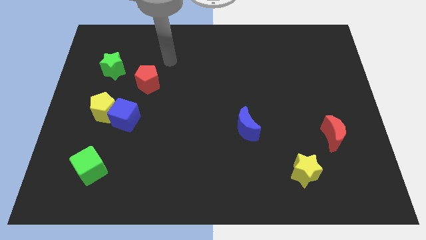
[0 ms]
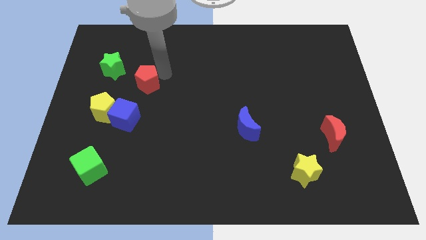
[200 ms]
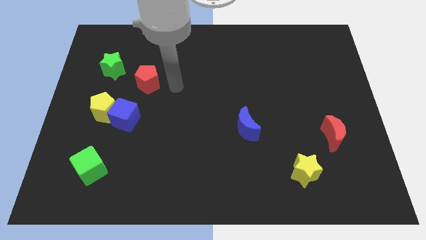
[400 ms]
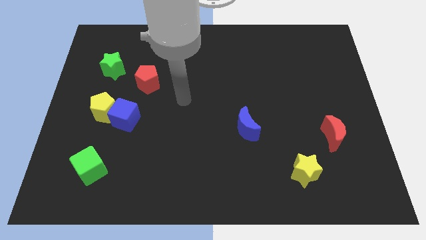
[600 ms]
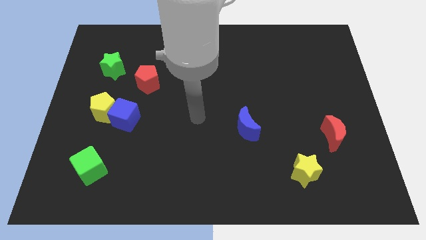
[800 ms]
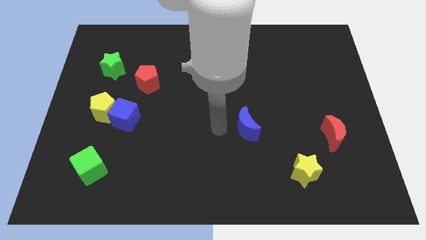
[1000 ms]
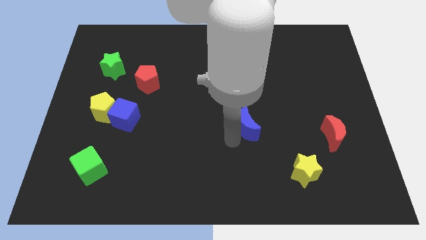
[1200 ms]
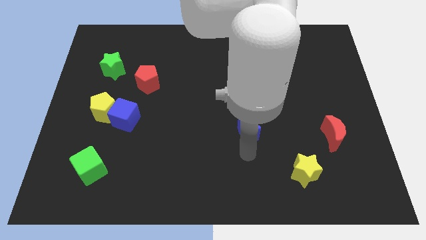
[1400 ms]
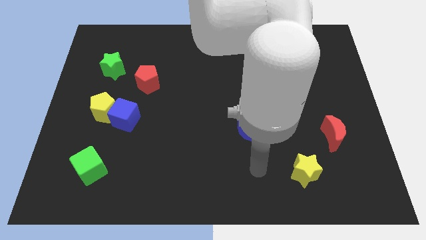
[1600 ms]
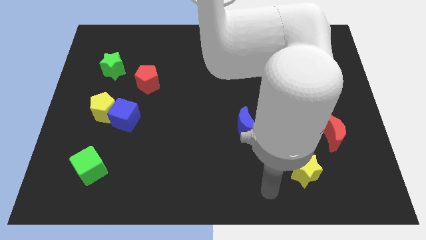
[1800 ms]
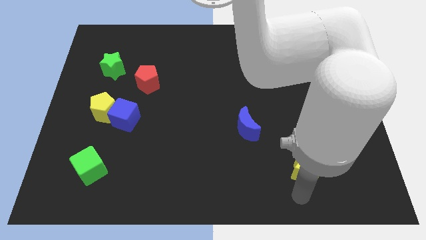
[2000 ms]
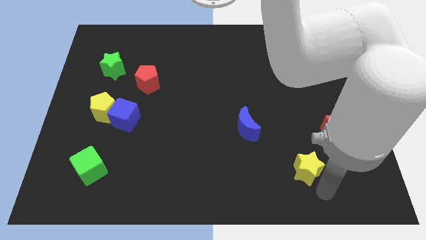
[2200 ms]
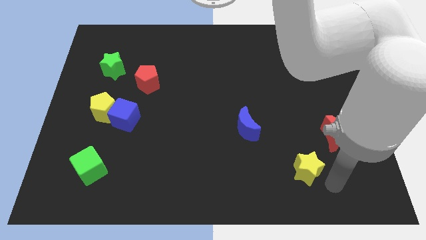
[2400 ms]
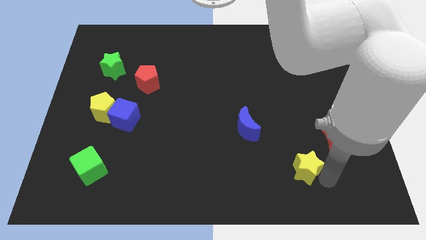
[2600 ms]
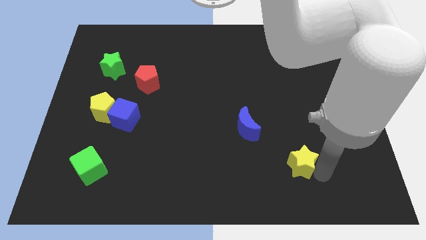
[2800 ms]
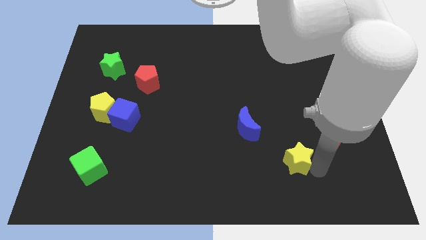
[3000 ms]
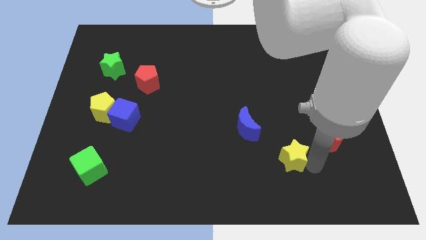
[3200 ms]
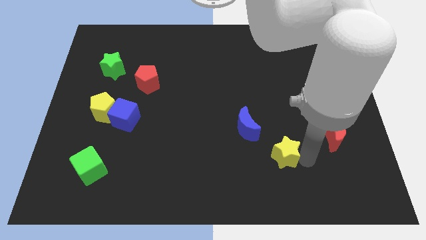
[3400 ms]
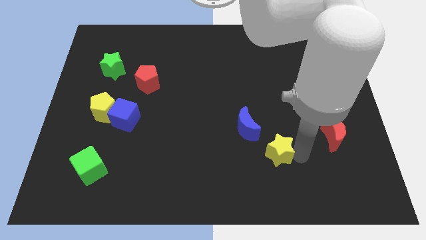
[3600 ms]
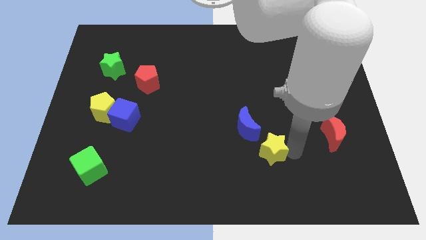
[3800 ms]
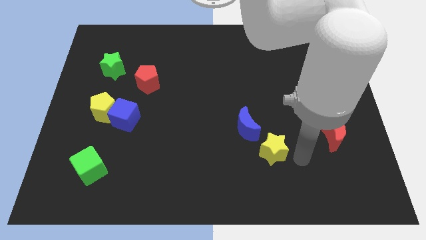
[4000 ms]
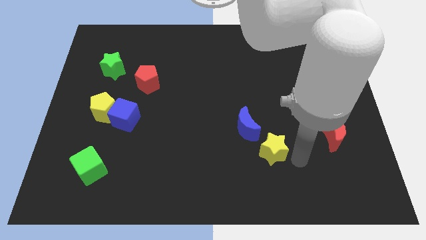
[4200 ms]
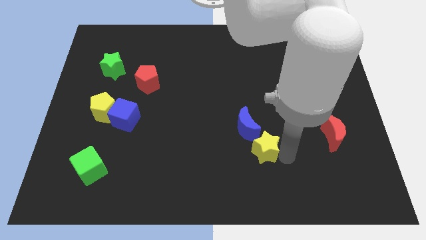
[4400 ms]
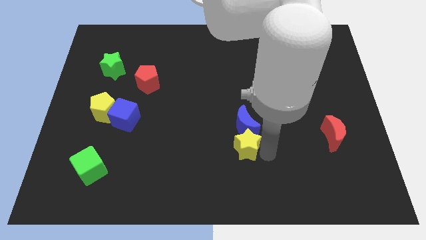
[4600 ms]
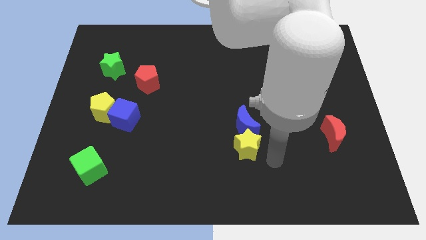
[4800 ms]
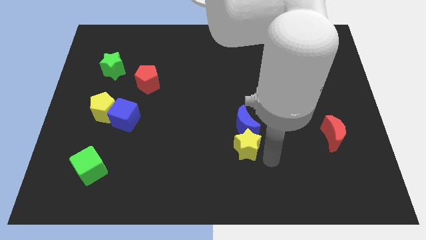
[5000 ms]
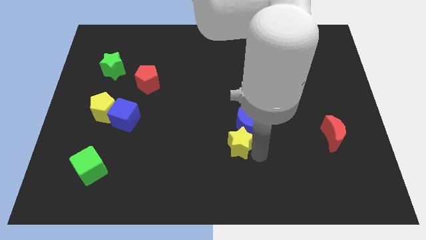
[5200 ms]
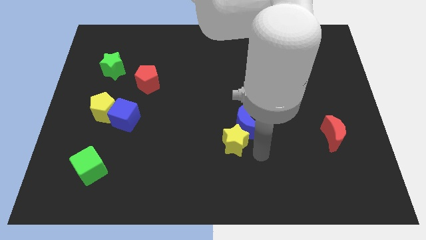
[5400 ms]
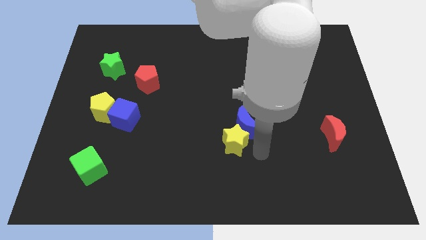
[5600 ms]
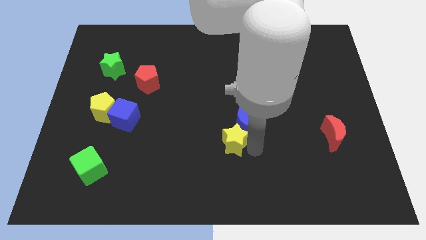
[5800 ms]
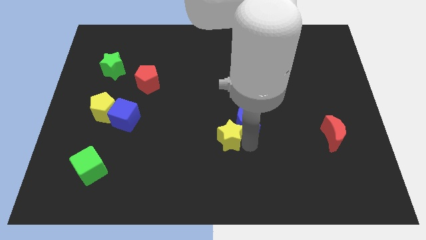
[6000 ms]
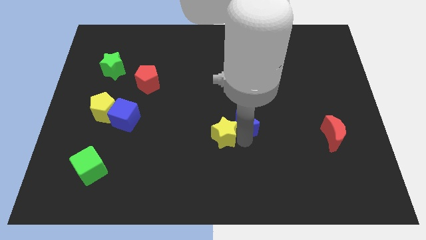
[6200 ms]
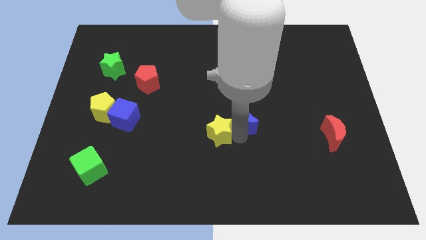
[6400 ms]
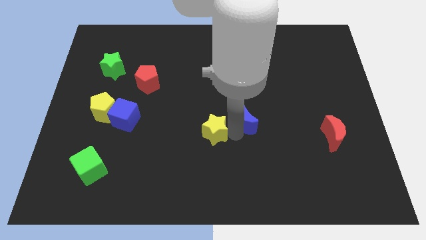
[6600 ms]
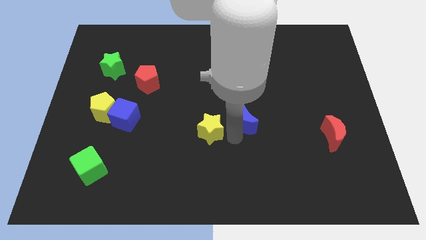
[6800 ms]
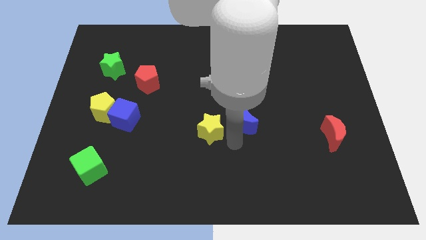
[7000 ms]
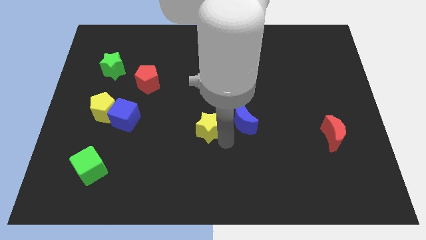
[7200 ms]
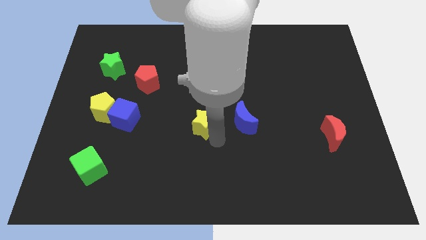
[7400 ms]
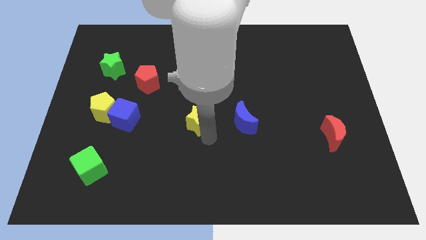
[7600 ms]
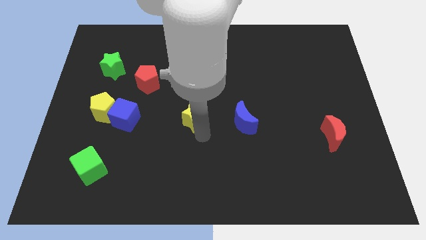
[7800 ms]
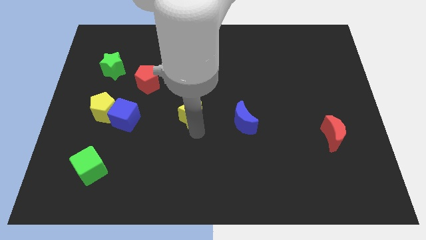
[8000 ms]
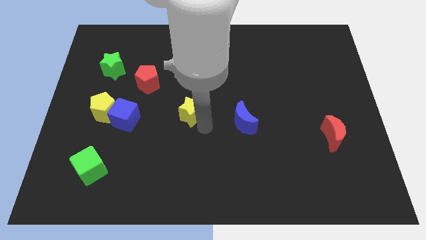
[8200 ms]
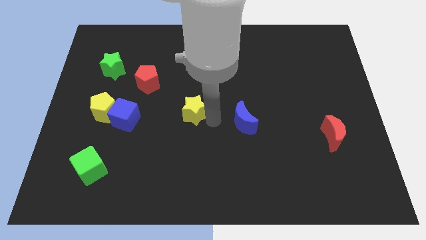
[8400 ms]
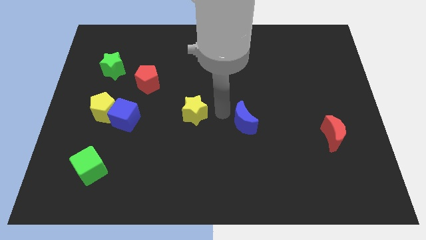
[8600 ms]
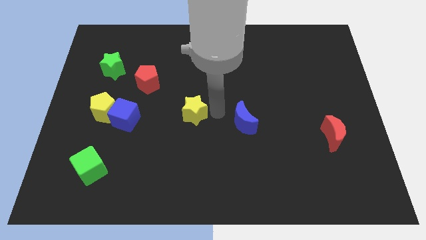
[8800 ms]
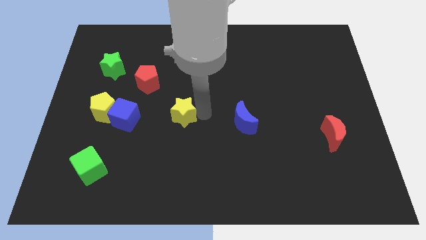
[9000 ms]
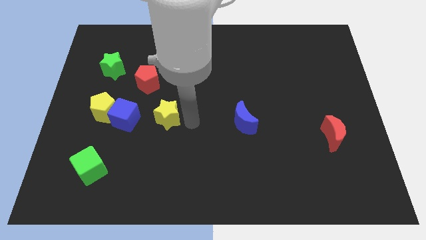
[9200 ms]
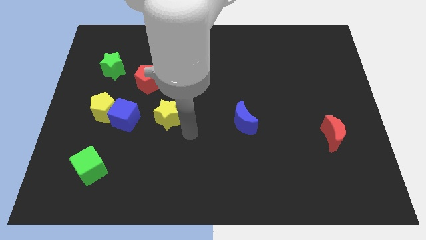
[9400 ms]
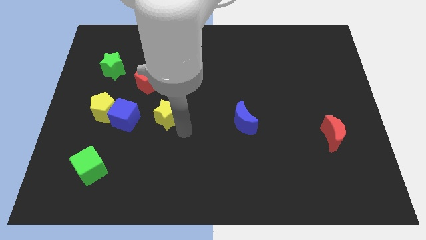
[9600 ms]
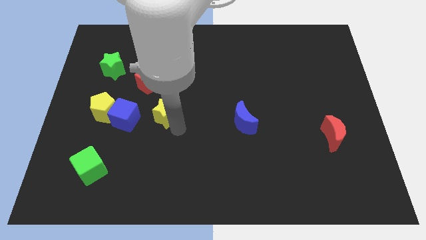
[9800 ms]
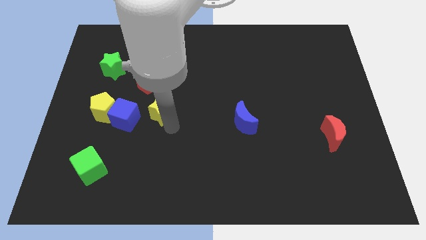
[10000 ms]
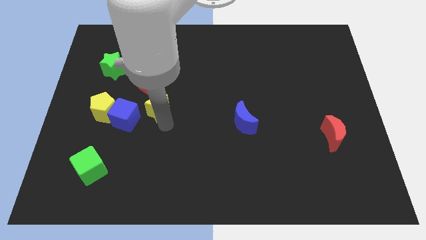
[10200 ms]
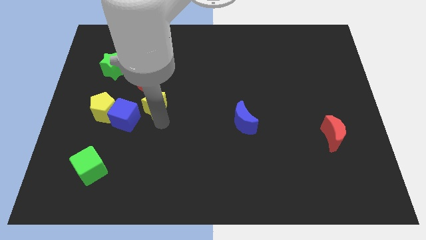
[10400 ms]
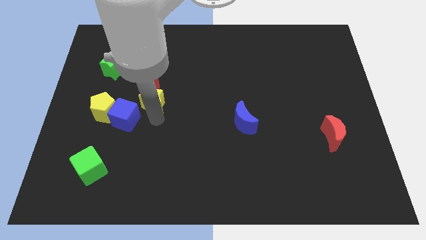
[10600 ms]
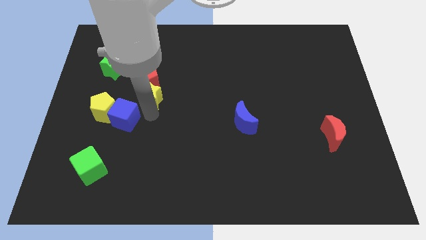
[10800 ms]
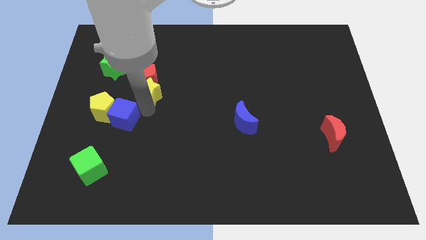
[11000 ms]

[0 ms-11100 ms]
move the yellow star diagonally down and to the right of the green star

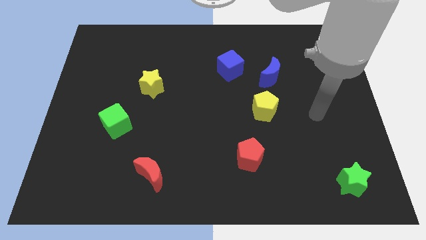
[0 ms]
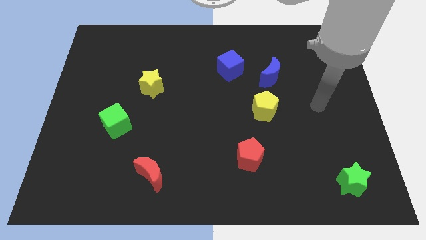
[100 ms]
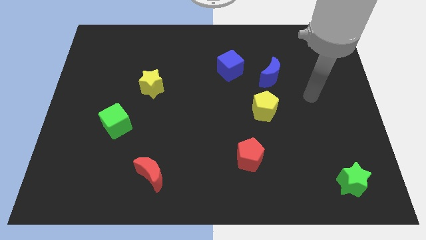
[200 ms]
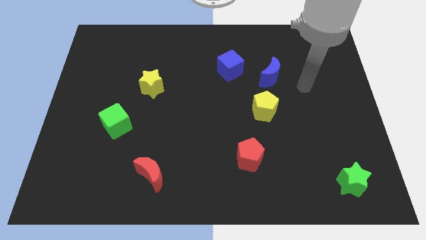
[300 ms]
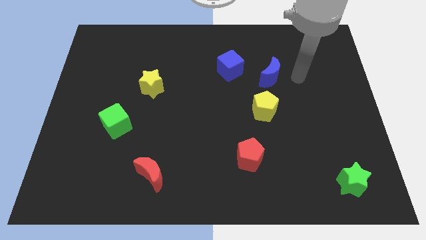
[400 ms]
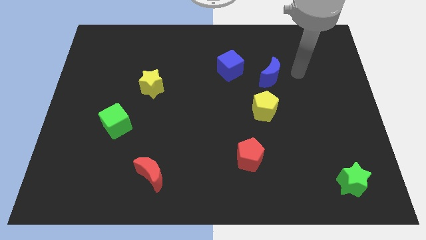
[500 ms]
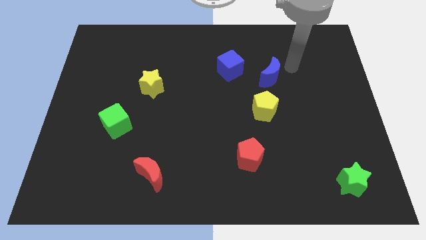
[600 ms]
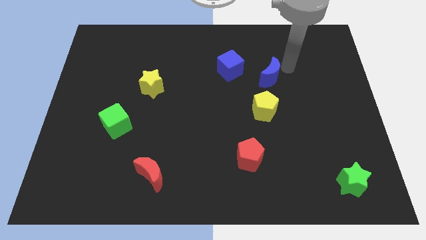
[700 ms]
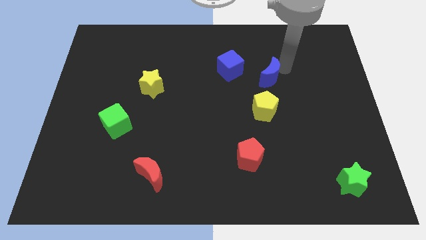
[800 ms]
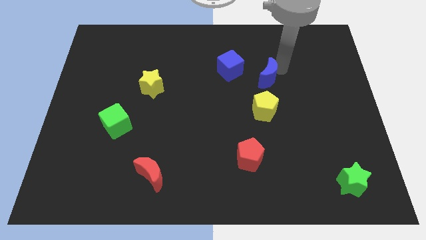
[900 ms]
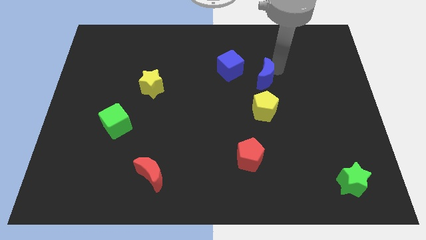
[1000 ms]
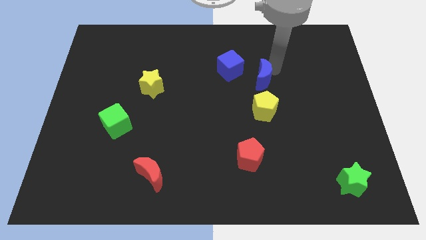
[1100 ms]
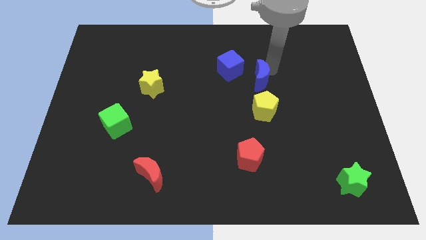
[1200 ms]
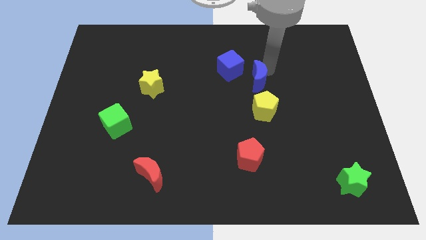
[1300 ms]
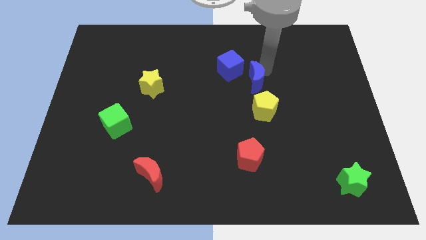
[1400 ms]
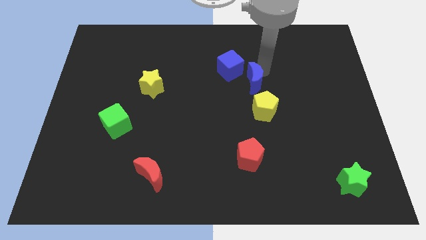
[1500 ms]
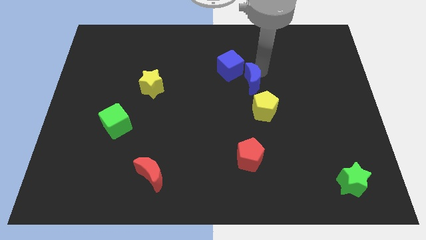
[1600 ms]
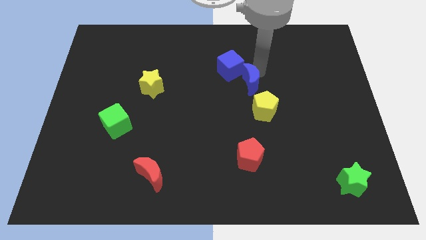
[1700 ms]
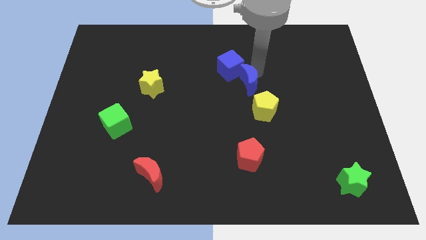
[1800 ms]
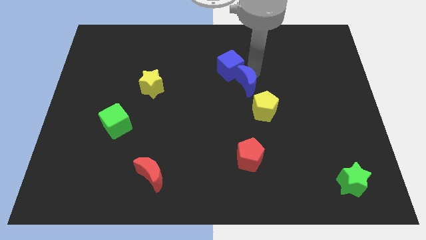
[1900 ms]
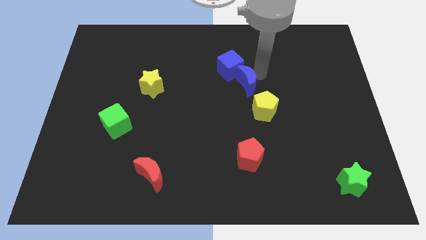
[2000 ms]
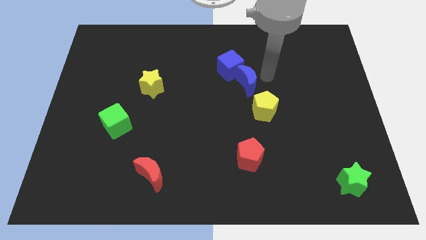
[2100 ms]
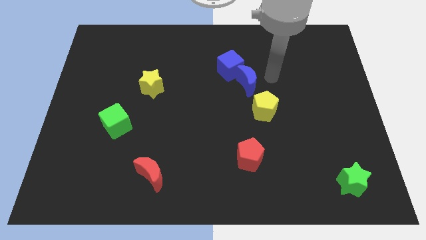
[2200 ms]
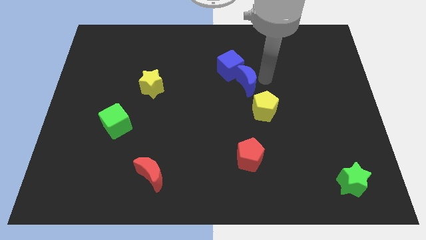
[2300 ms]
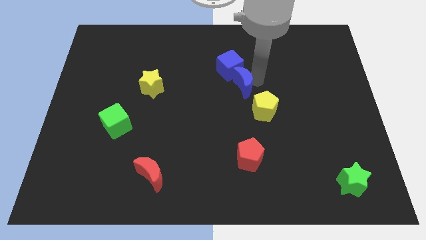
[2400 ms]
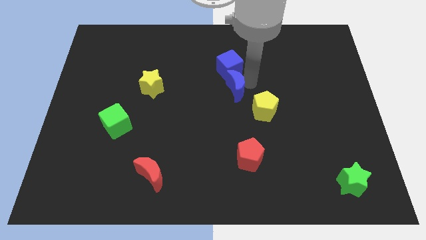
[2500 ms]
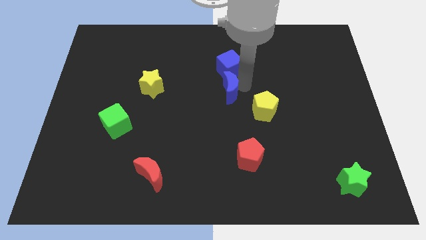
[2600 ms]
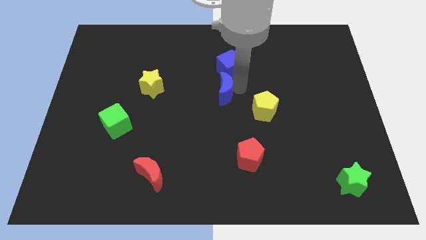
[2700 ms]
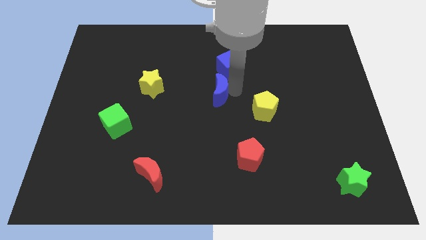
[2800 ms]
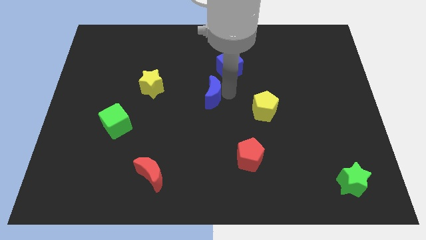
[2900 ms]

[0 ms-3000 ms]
move the blue moon just right of the yellow star
